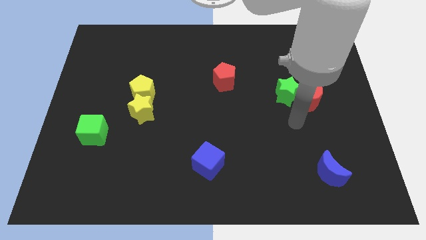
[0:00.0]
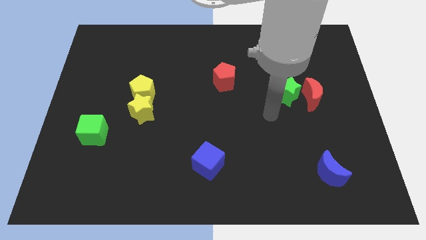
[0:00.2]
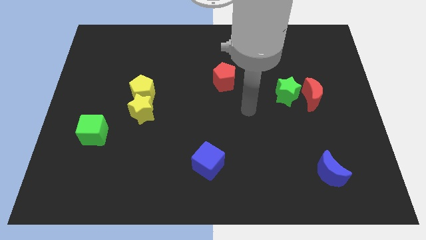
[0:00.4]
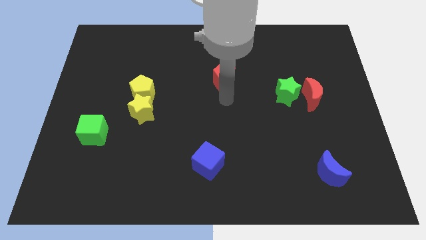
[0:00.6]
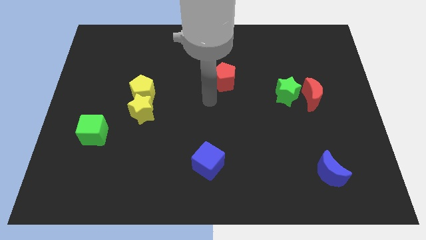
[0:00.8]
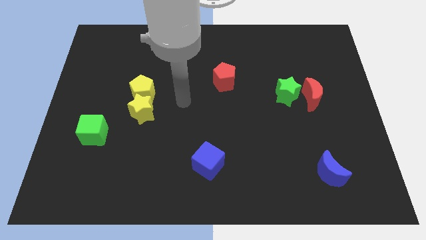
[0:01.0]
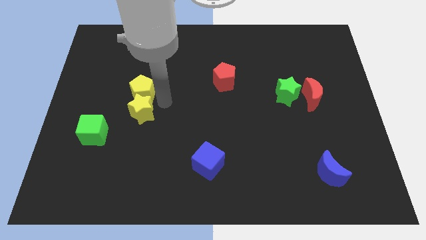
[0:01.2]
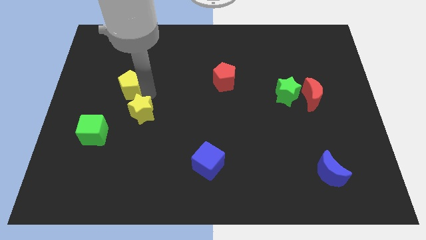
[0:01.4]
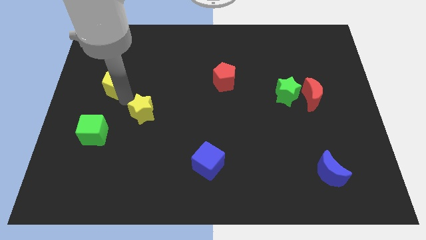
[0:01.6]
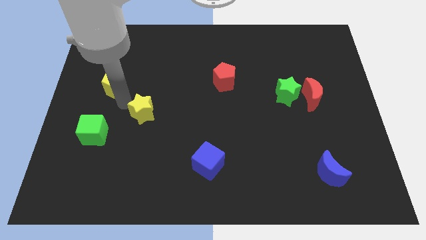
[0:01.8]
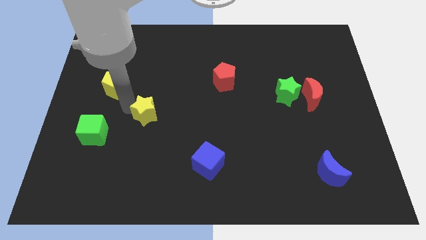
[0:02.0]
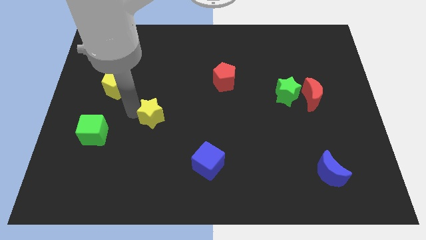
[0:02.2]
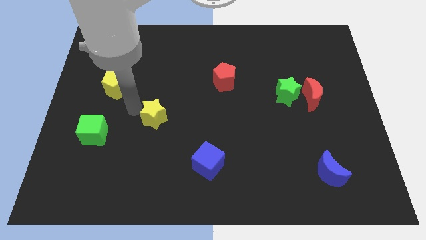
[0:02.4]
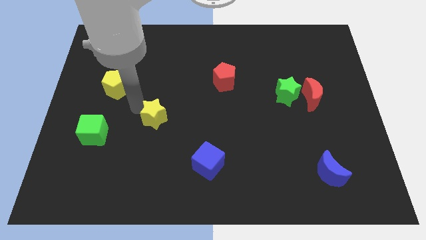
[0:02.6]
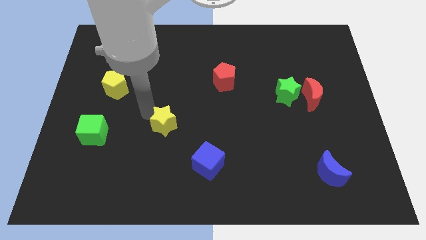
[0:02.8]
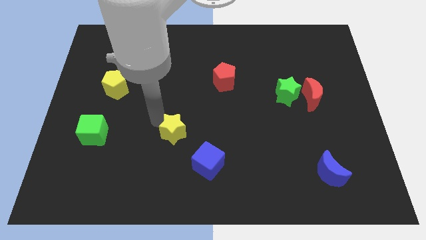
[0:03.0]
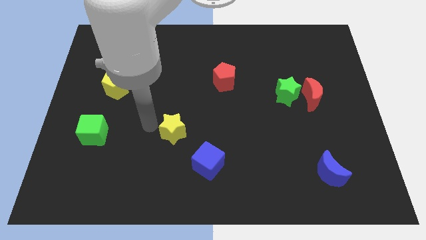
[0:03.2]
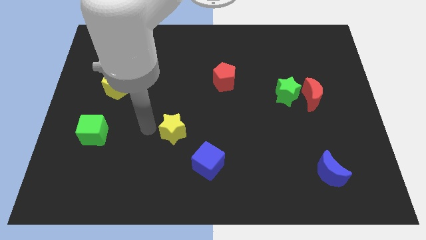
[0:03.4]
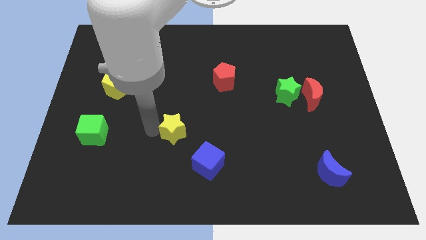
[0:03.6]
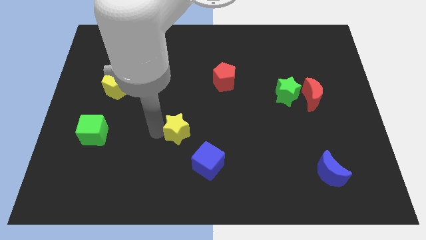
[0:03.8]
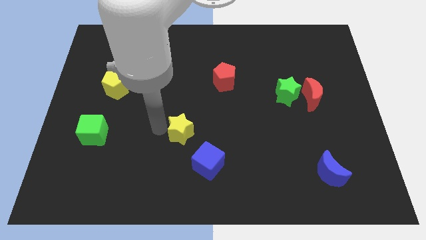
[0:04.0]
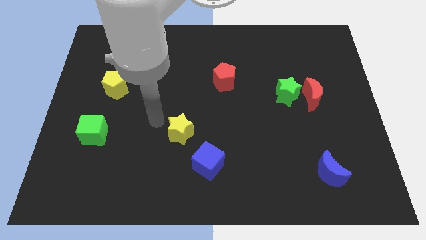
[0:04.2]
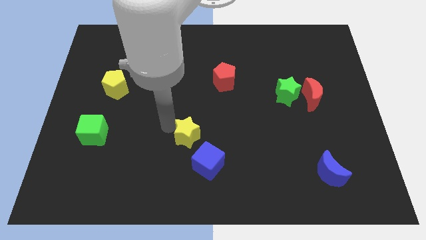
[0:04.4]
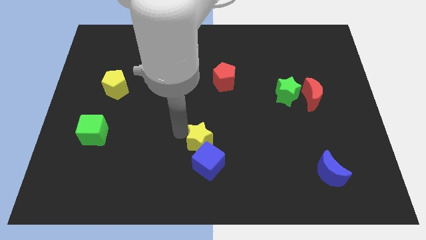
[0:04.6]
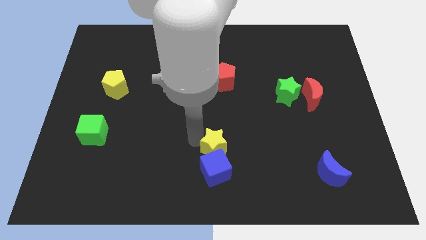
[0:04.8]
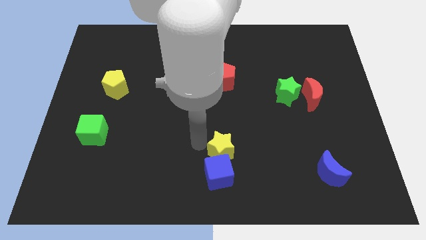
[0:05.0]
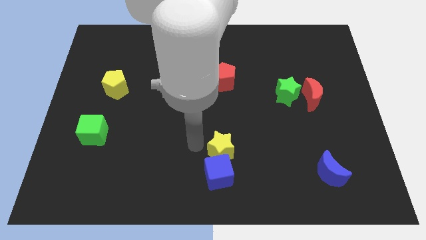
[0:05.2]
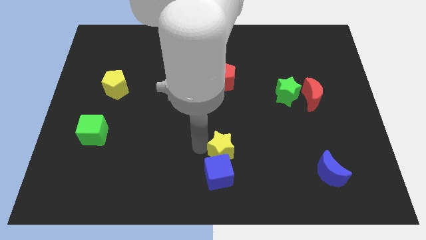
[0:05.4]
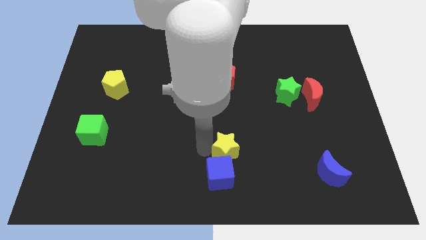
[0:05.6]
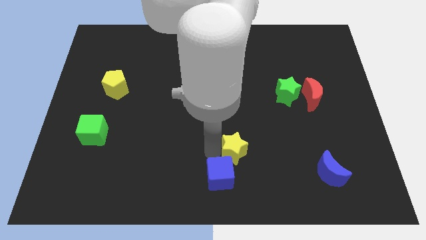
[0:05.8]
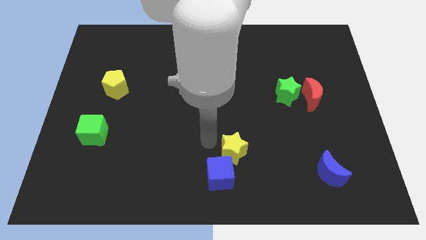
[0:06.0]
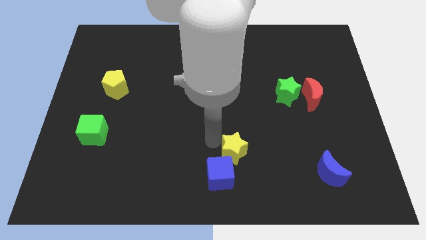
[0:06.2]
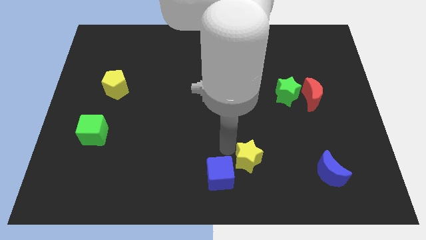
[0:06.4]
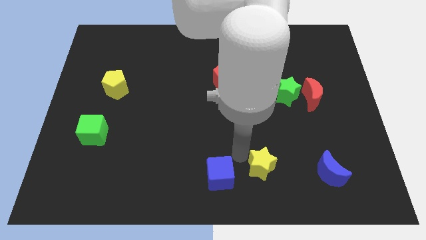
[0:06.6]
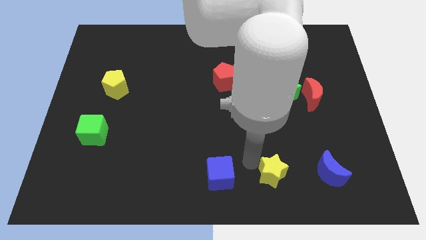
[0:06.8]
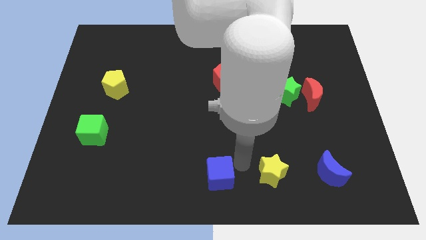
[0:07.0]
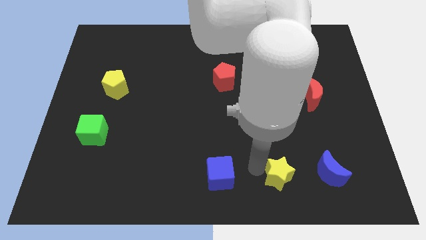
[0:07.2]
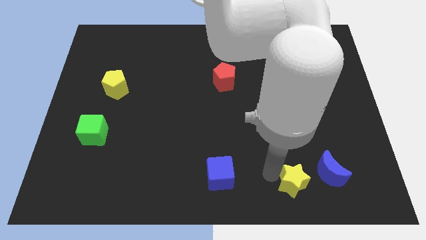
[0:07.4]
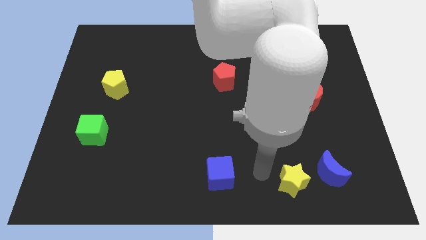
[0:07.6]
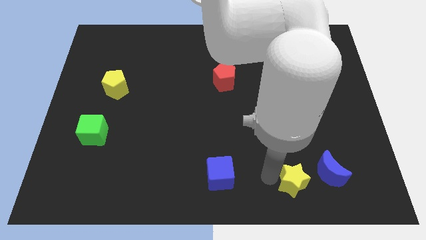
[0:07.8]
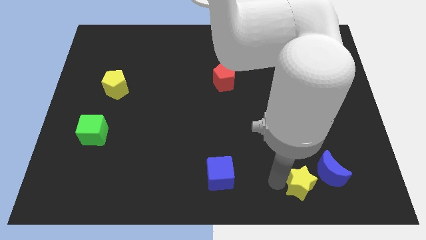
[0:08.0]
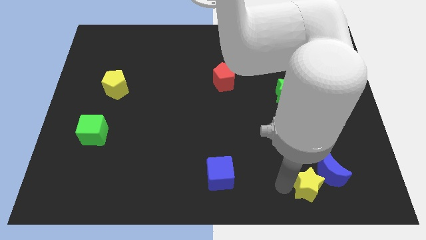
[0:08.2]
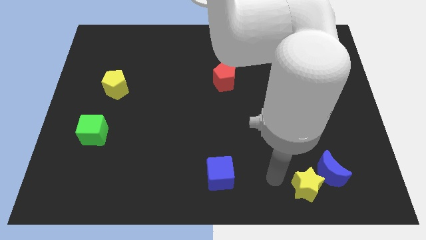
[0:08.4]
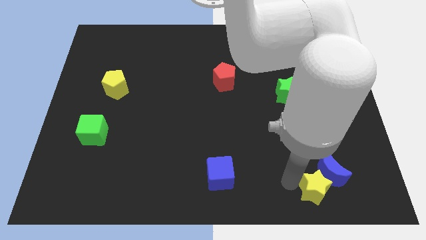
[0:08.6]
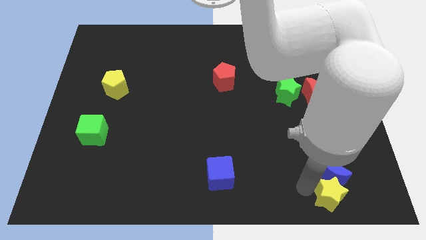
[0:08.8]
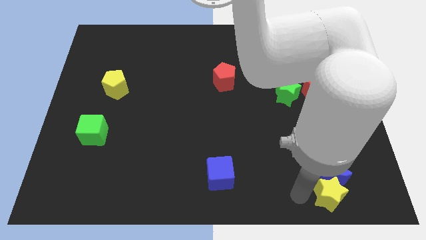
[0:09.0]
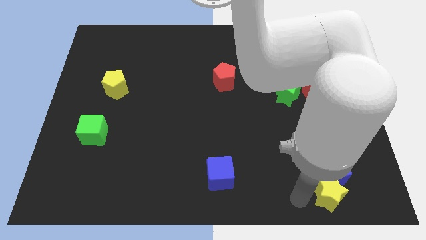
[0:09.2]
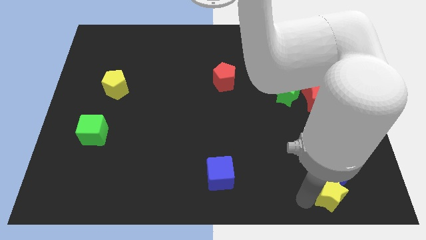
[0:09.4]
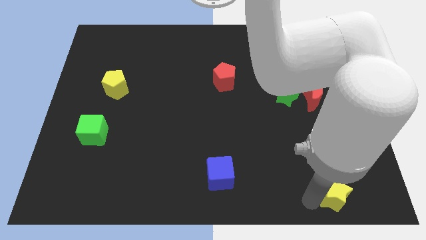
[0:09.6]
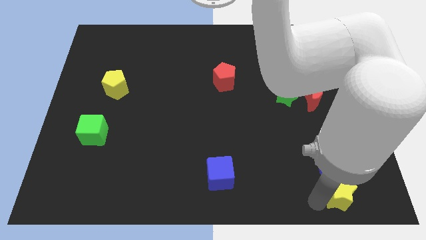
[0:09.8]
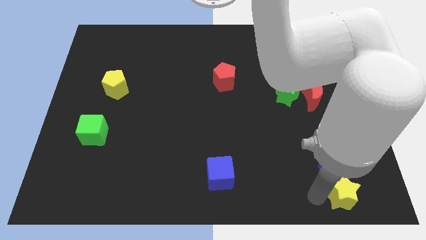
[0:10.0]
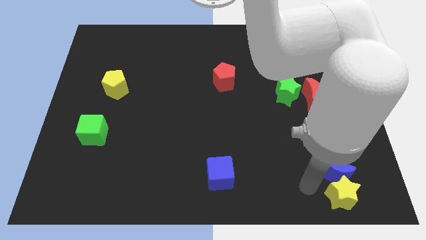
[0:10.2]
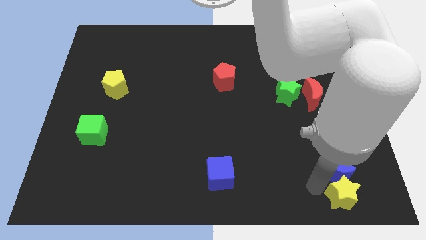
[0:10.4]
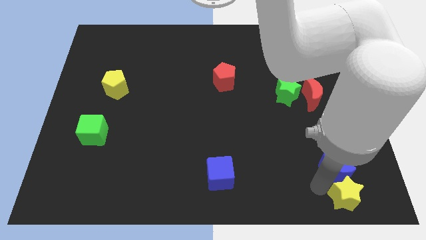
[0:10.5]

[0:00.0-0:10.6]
put the yellow star to the lower right corner
